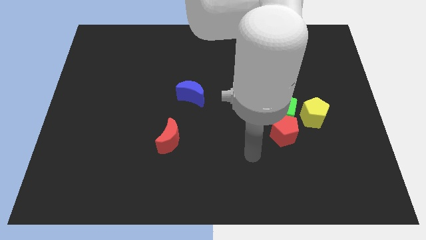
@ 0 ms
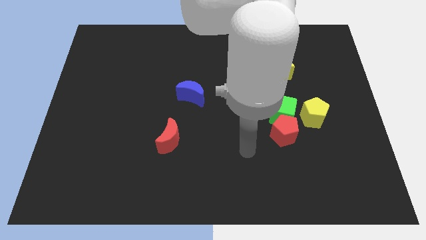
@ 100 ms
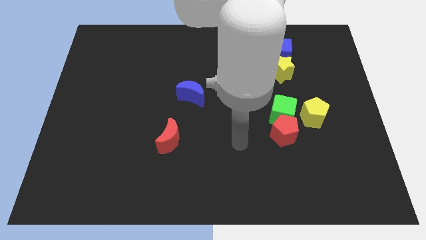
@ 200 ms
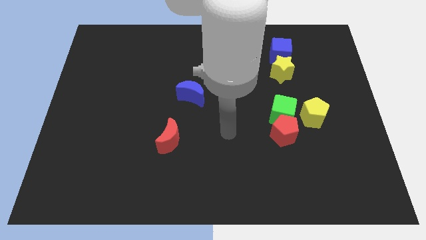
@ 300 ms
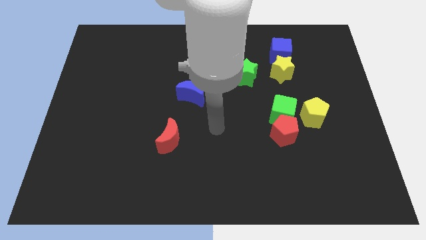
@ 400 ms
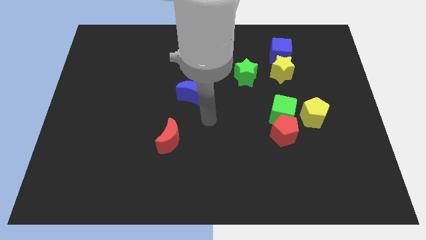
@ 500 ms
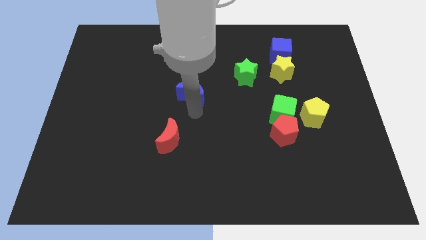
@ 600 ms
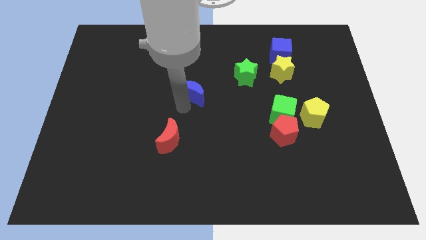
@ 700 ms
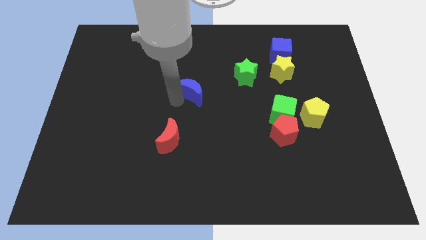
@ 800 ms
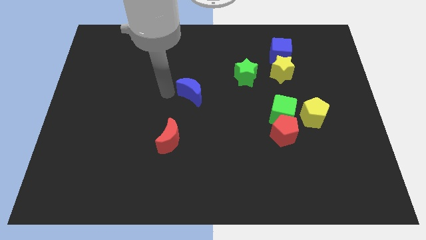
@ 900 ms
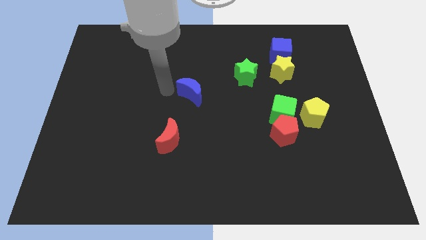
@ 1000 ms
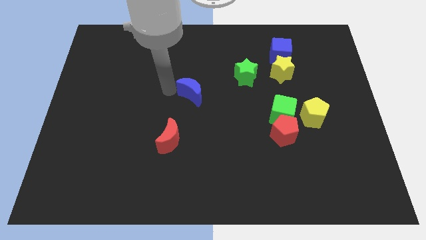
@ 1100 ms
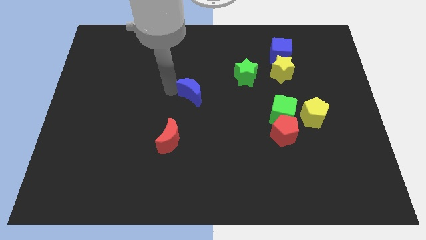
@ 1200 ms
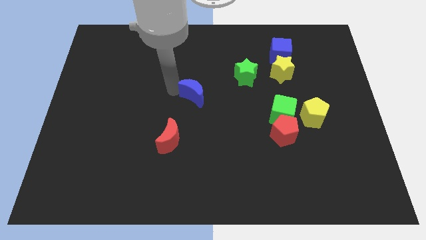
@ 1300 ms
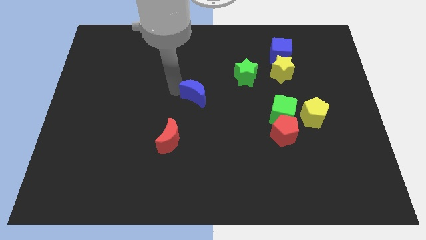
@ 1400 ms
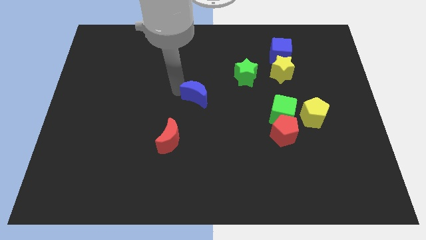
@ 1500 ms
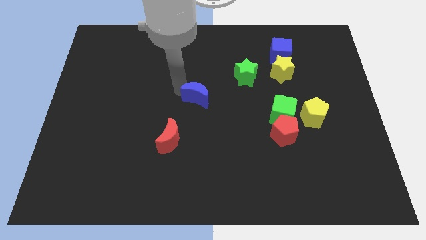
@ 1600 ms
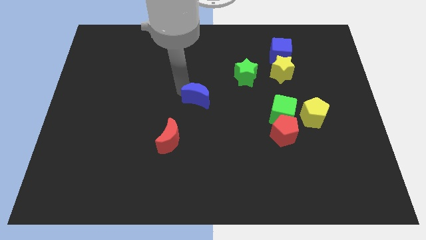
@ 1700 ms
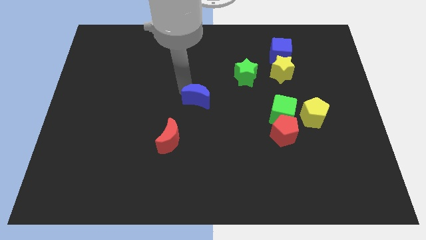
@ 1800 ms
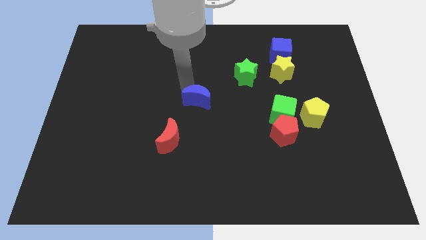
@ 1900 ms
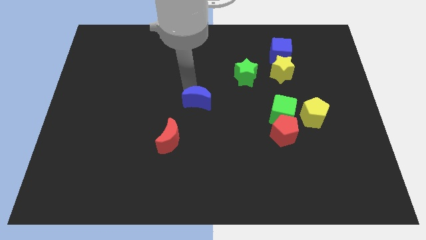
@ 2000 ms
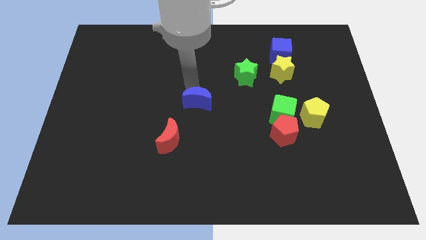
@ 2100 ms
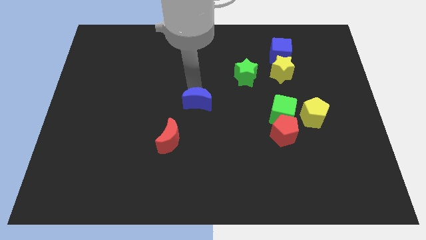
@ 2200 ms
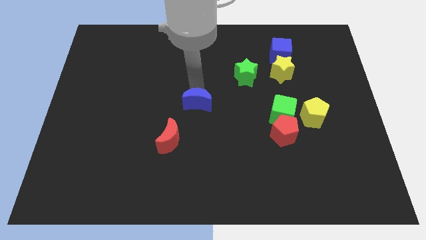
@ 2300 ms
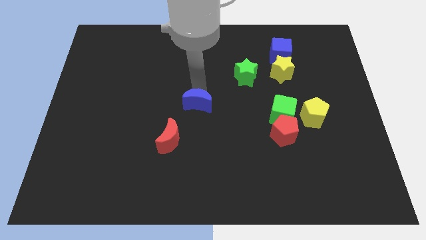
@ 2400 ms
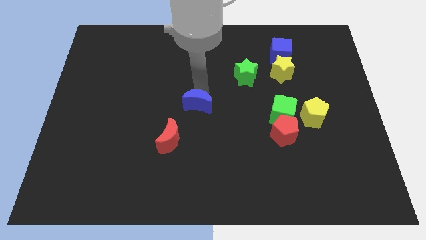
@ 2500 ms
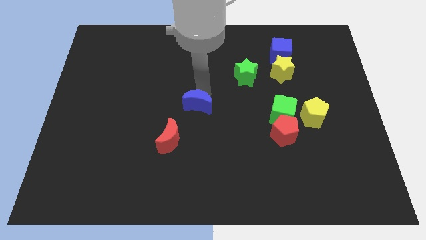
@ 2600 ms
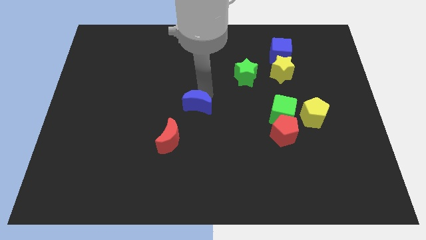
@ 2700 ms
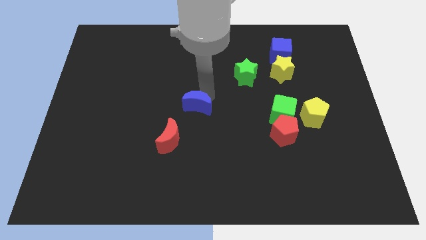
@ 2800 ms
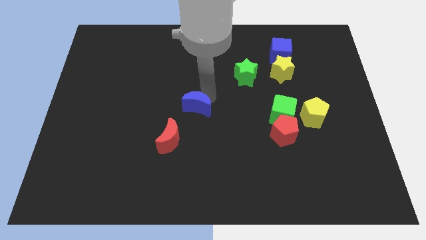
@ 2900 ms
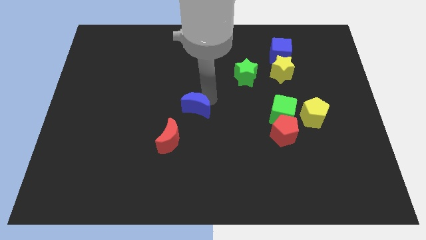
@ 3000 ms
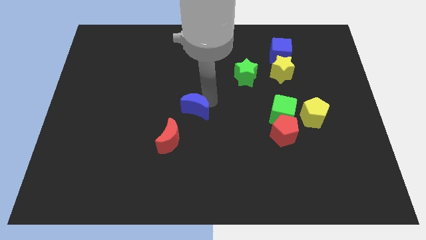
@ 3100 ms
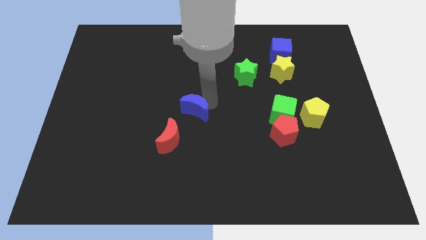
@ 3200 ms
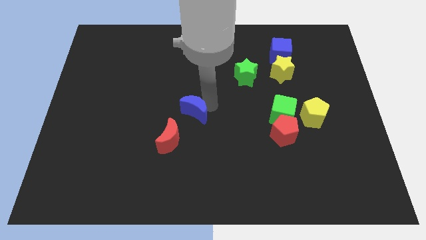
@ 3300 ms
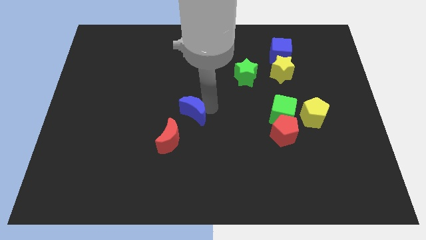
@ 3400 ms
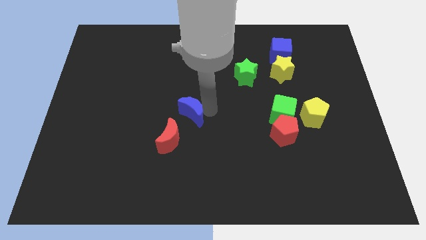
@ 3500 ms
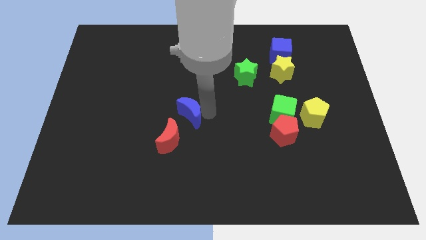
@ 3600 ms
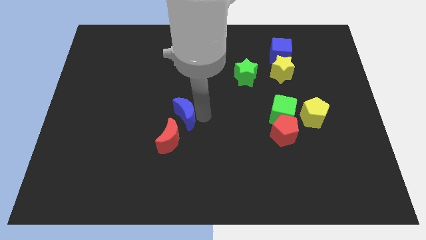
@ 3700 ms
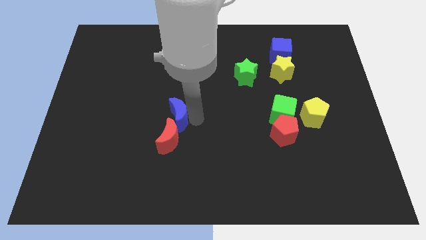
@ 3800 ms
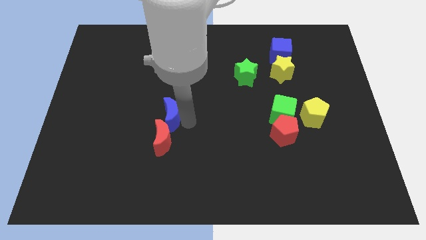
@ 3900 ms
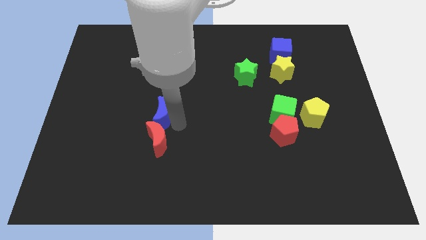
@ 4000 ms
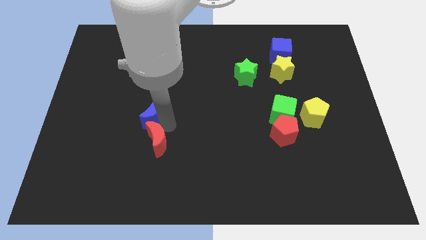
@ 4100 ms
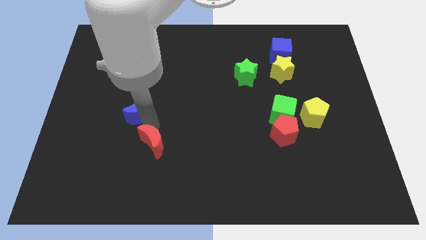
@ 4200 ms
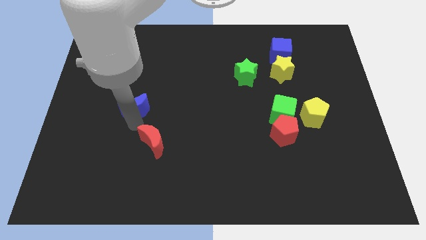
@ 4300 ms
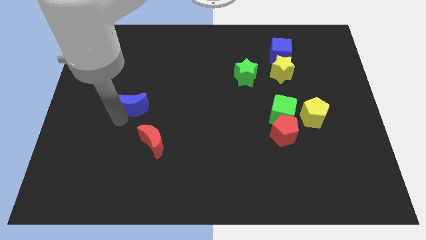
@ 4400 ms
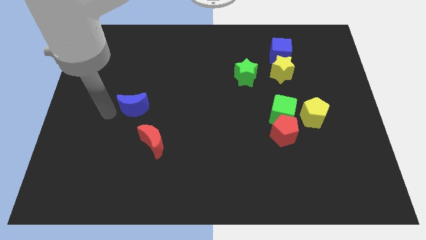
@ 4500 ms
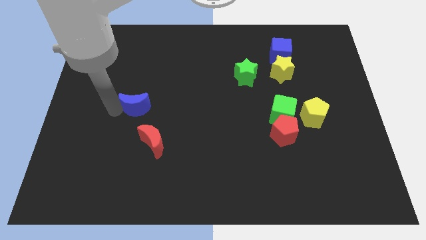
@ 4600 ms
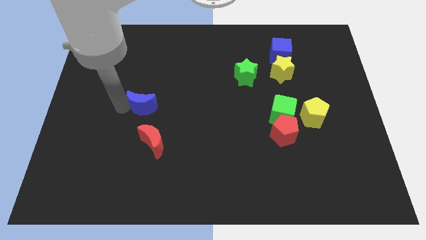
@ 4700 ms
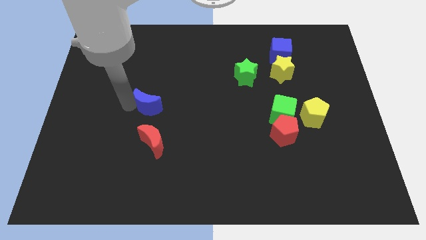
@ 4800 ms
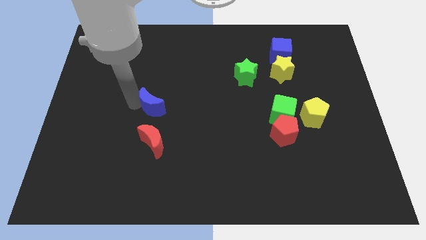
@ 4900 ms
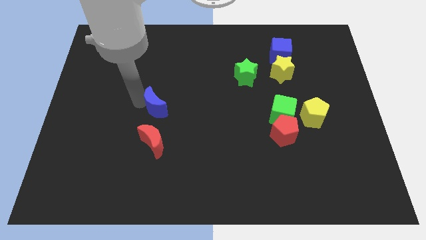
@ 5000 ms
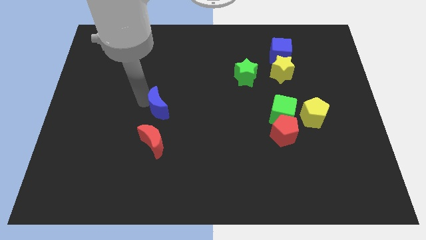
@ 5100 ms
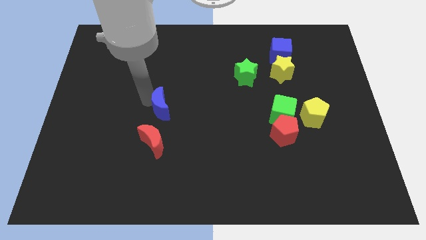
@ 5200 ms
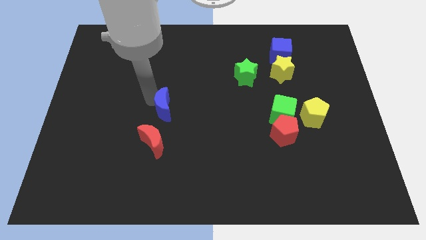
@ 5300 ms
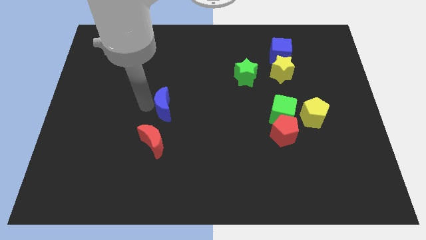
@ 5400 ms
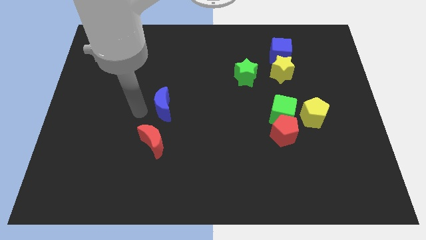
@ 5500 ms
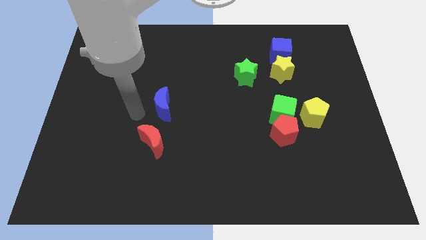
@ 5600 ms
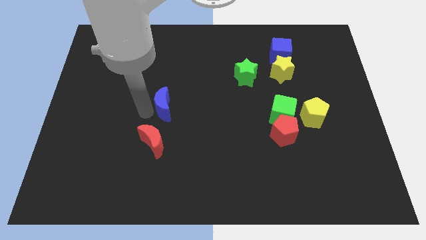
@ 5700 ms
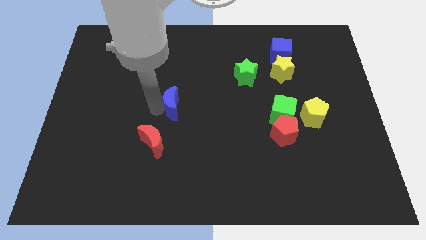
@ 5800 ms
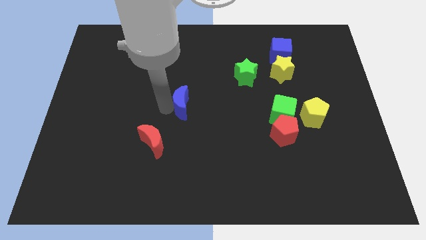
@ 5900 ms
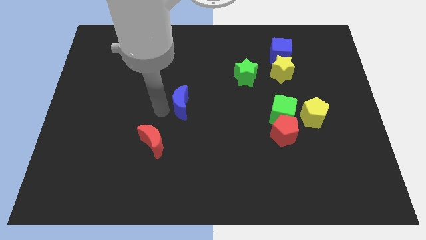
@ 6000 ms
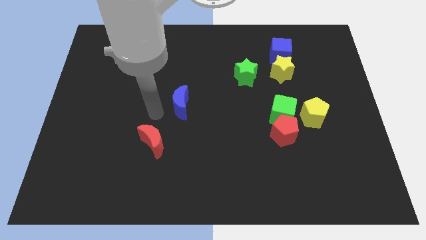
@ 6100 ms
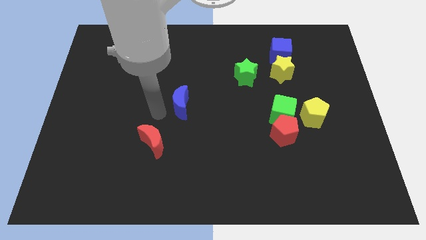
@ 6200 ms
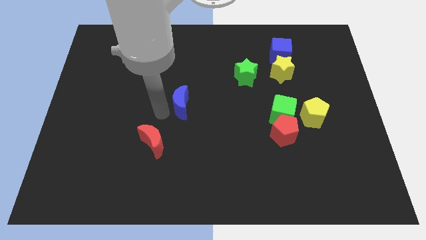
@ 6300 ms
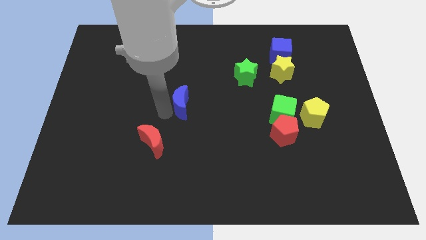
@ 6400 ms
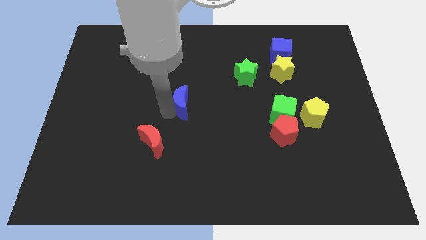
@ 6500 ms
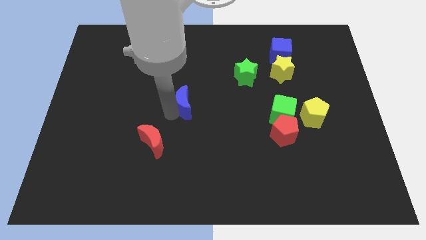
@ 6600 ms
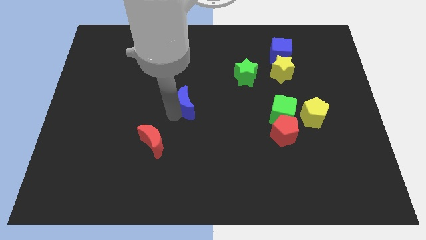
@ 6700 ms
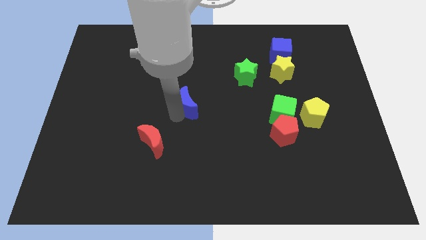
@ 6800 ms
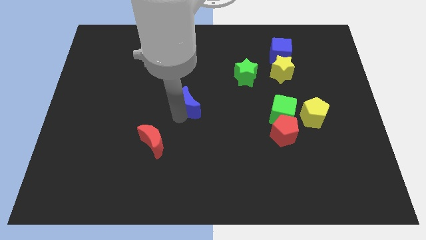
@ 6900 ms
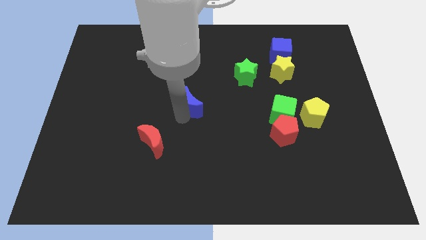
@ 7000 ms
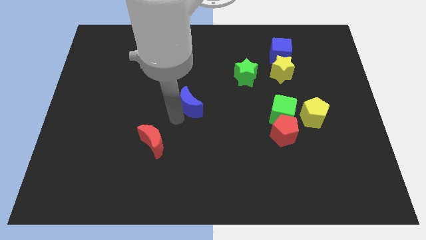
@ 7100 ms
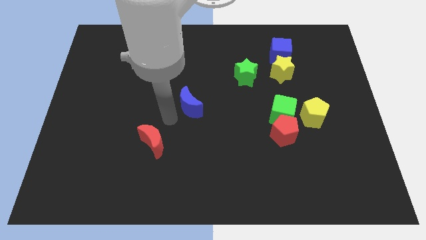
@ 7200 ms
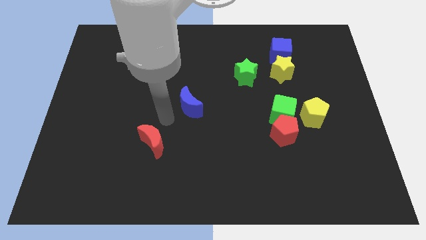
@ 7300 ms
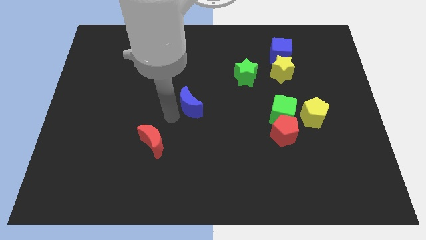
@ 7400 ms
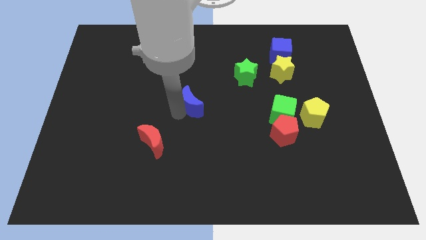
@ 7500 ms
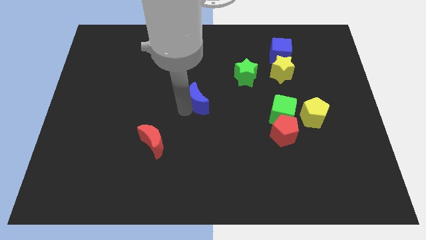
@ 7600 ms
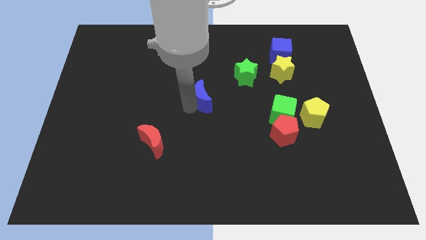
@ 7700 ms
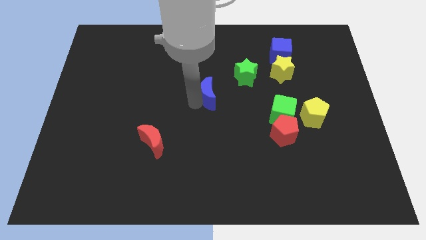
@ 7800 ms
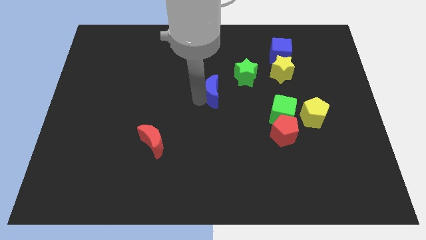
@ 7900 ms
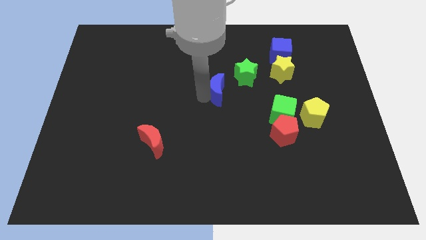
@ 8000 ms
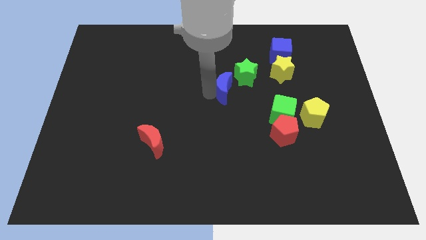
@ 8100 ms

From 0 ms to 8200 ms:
push the blue moon a little bit to the right

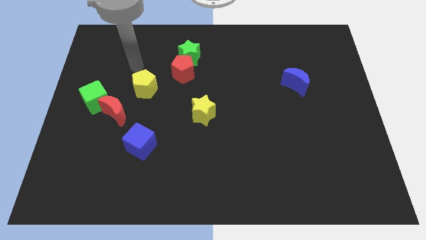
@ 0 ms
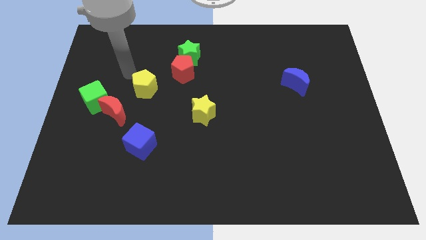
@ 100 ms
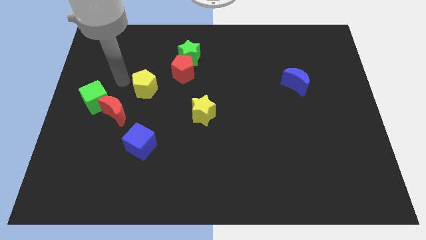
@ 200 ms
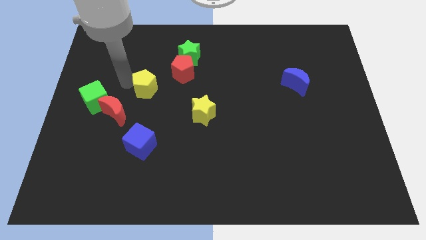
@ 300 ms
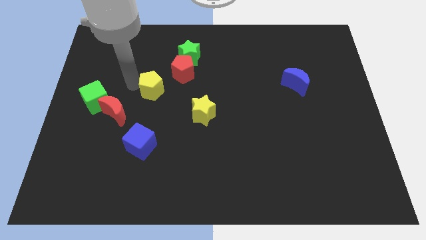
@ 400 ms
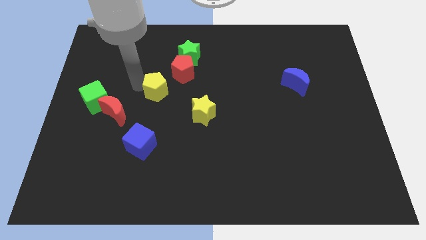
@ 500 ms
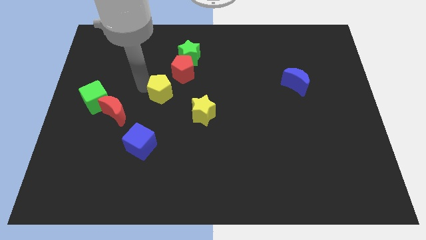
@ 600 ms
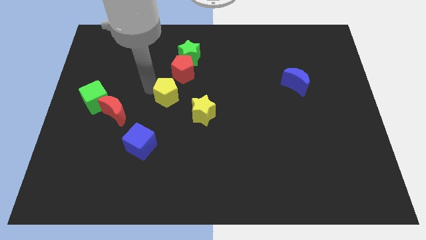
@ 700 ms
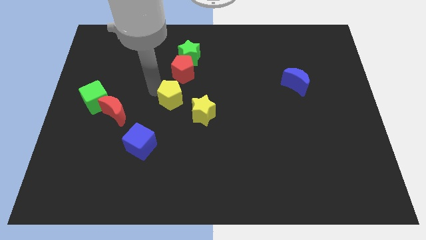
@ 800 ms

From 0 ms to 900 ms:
move the yellow pentagon diagonally downwards and to the right somewhat
